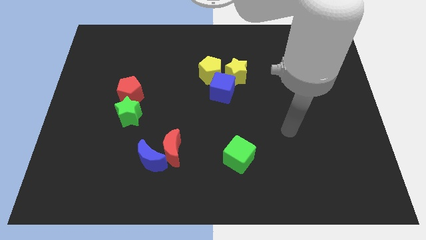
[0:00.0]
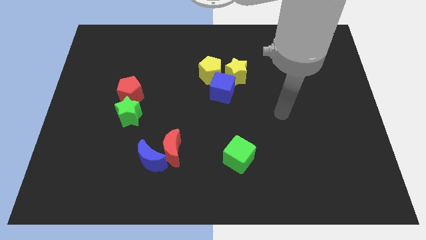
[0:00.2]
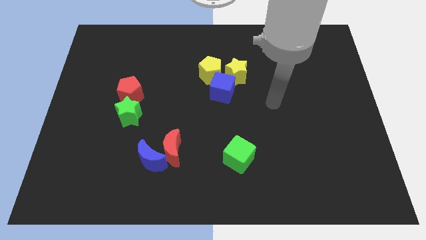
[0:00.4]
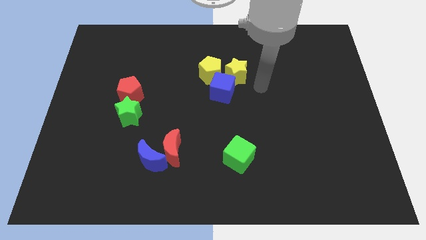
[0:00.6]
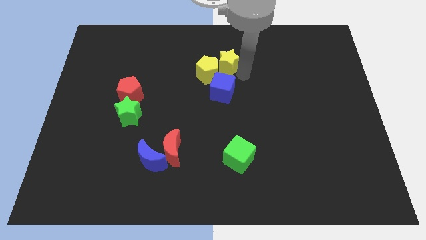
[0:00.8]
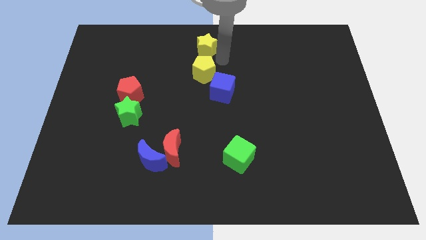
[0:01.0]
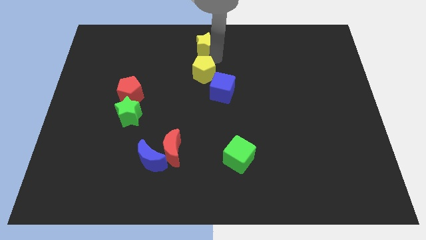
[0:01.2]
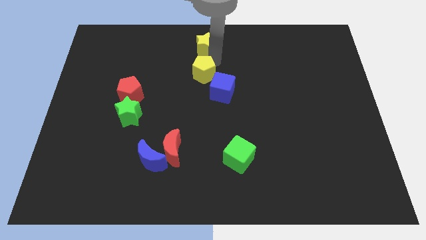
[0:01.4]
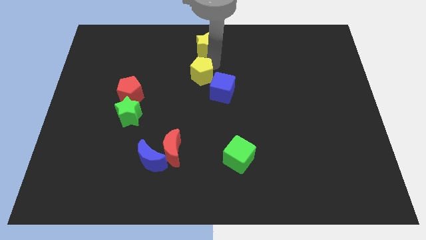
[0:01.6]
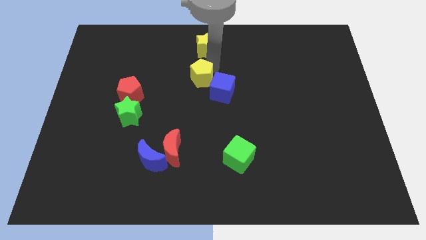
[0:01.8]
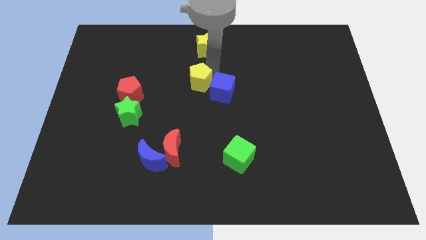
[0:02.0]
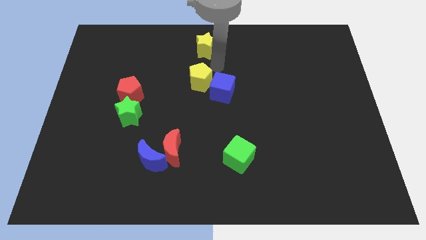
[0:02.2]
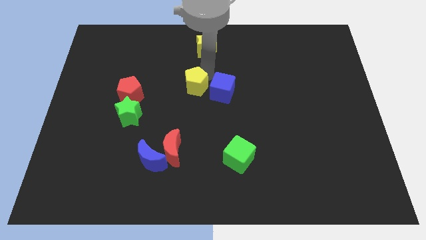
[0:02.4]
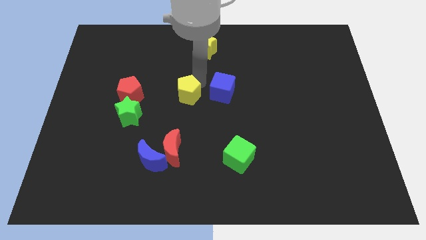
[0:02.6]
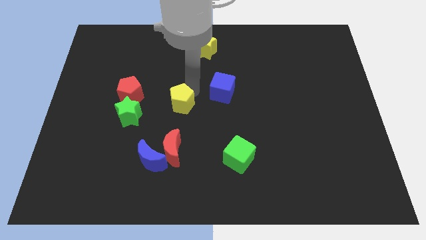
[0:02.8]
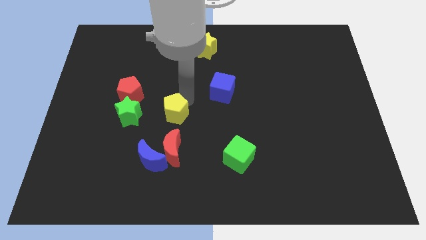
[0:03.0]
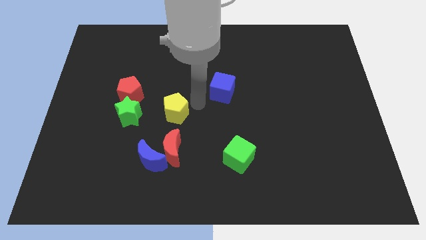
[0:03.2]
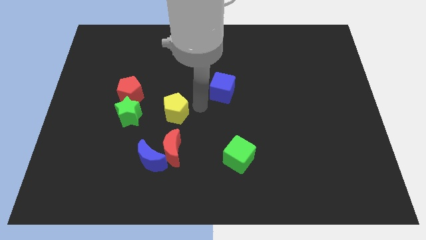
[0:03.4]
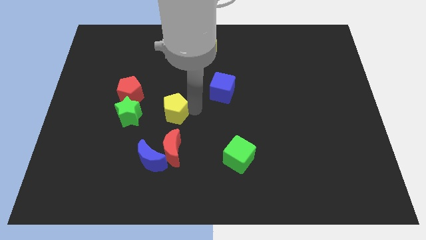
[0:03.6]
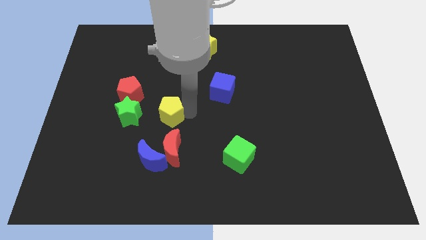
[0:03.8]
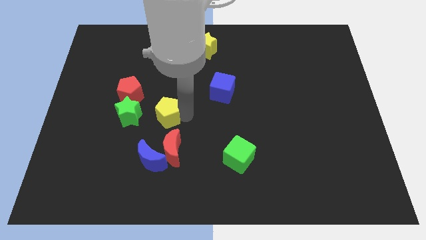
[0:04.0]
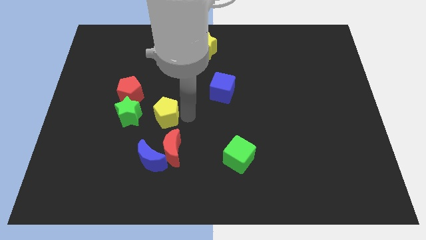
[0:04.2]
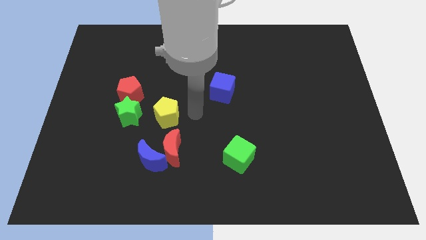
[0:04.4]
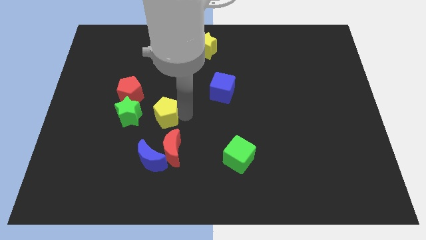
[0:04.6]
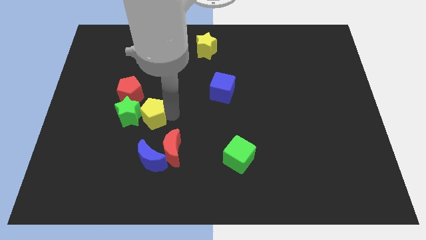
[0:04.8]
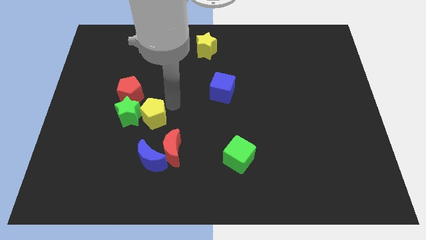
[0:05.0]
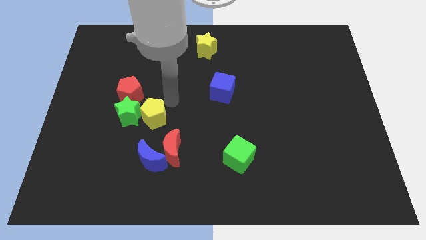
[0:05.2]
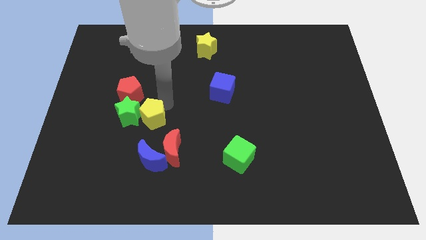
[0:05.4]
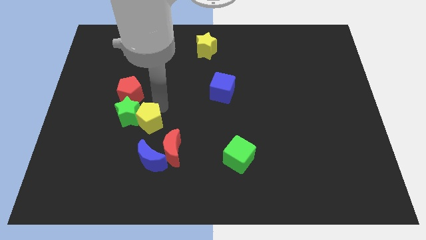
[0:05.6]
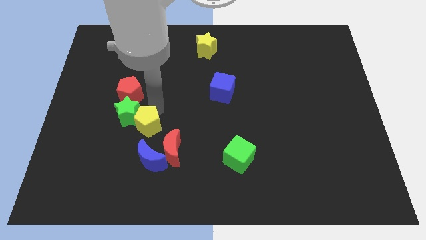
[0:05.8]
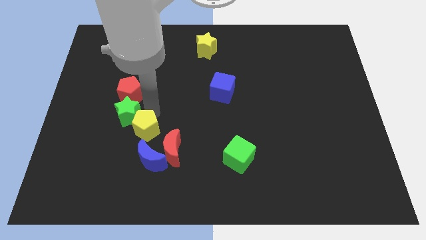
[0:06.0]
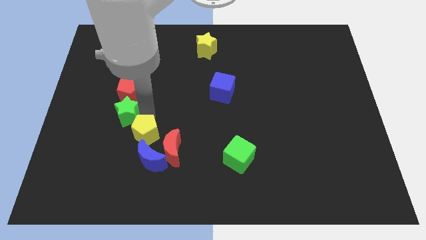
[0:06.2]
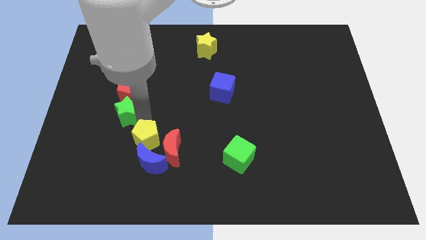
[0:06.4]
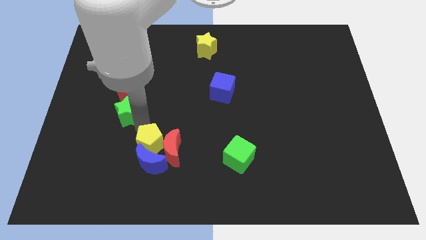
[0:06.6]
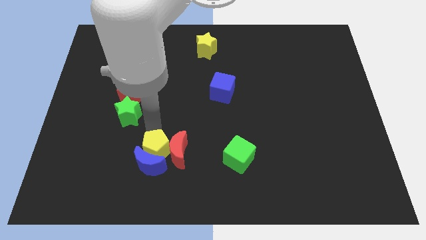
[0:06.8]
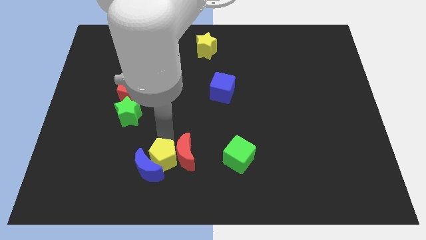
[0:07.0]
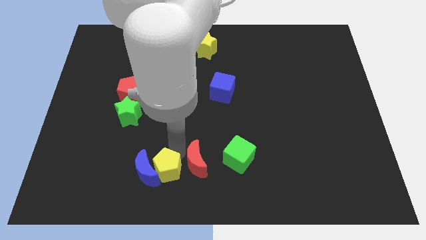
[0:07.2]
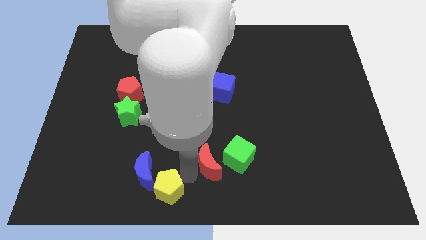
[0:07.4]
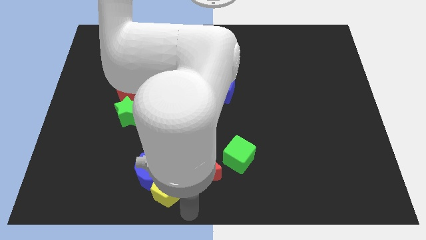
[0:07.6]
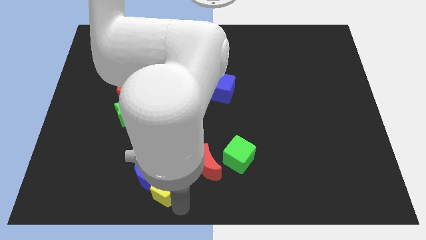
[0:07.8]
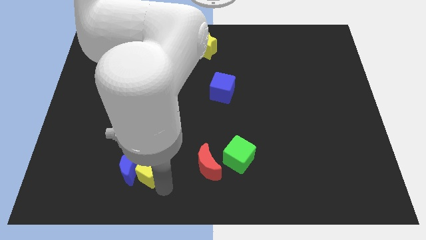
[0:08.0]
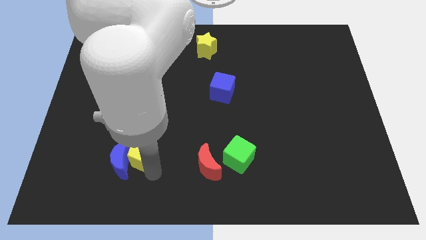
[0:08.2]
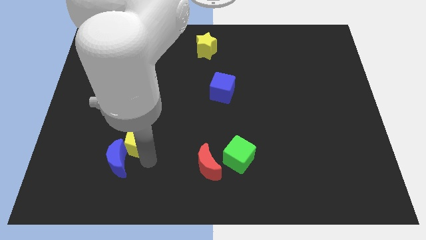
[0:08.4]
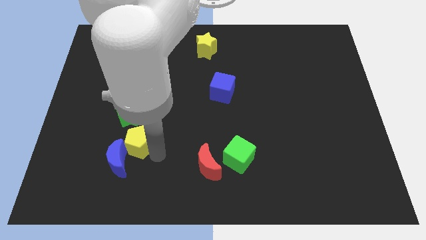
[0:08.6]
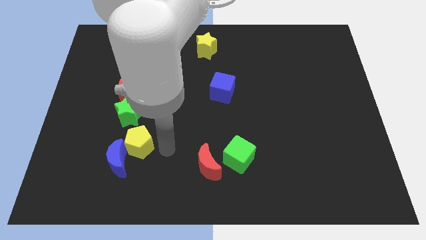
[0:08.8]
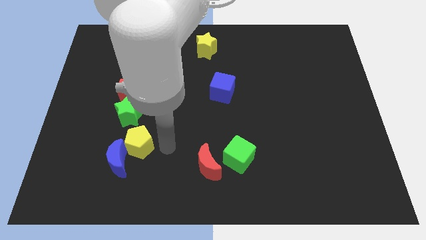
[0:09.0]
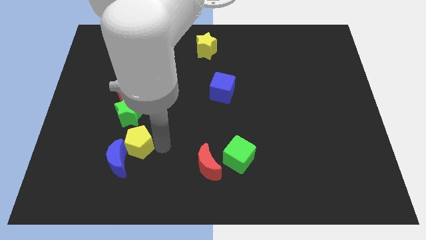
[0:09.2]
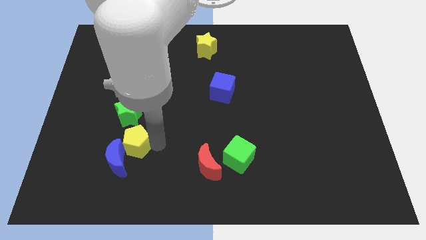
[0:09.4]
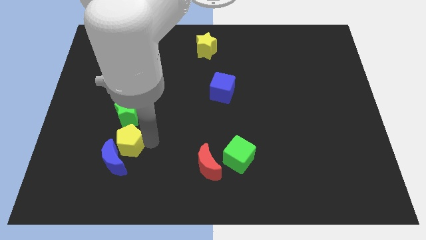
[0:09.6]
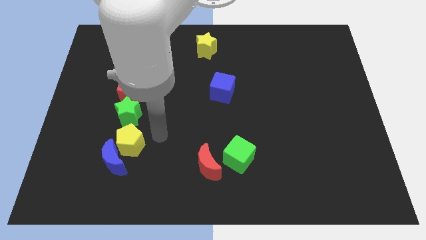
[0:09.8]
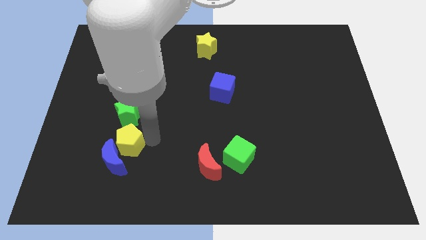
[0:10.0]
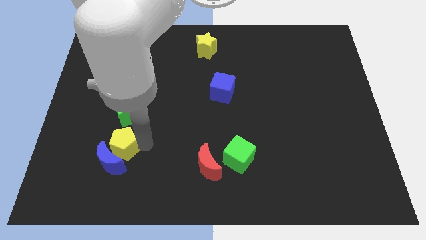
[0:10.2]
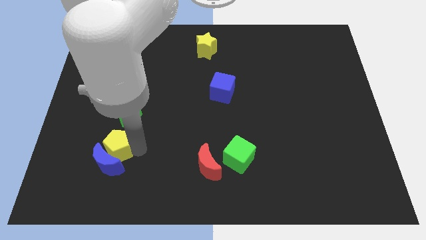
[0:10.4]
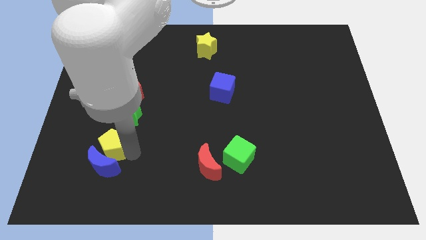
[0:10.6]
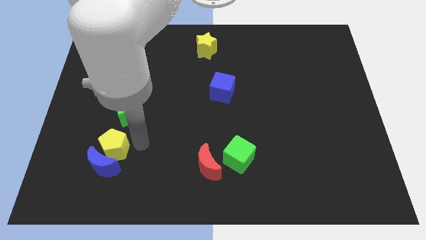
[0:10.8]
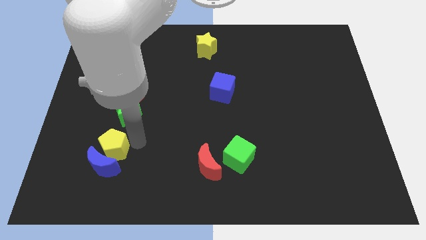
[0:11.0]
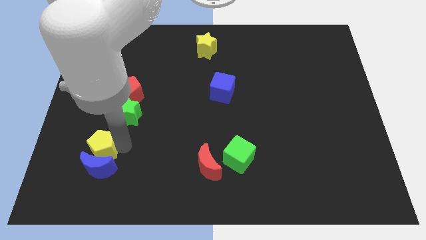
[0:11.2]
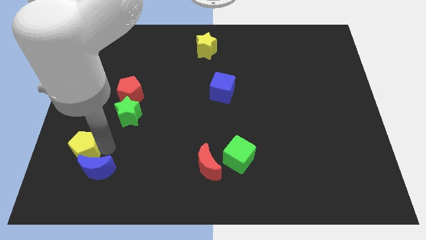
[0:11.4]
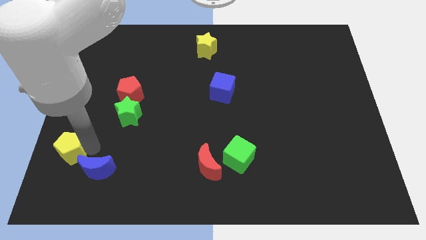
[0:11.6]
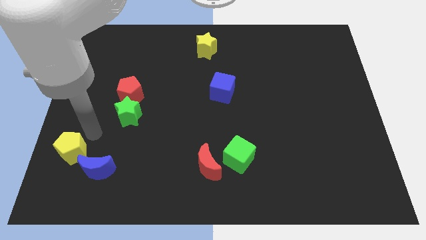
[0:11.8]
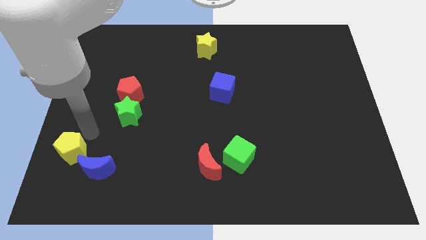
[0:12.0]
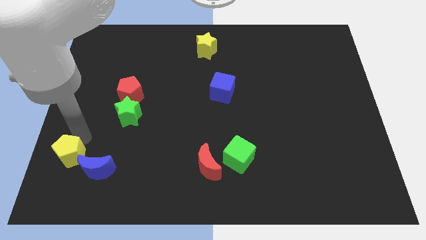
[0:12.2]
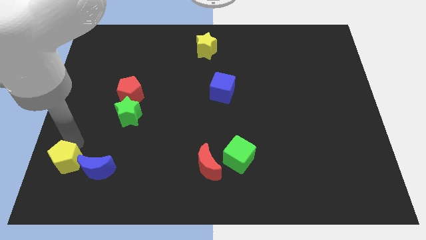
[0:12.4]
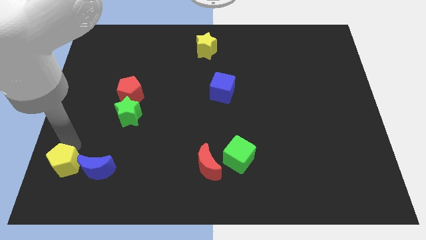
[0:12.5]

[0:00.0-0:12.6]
slide the yellow pentagon to the lower left corner

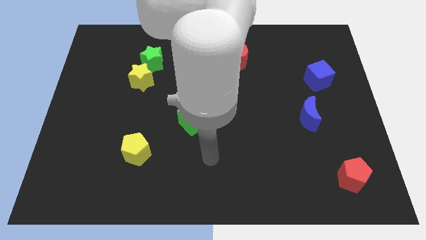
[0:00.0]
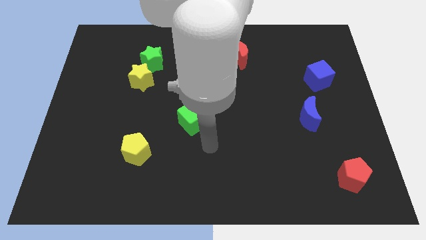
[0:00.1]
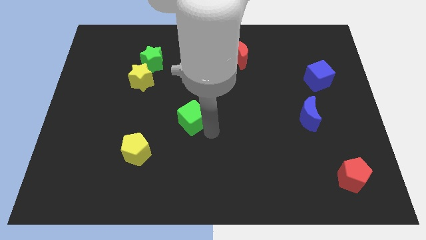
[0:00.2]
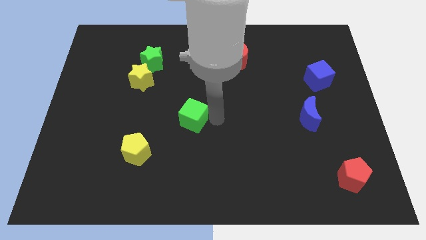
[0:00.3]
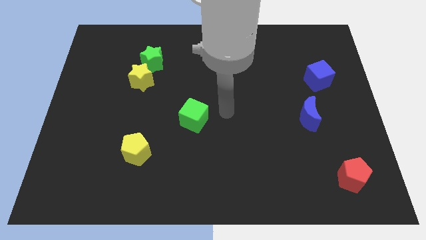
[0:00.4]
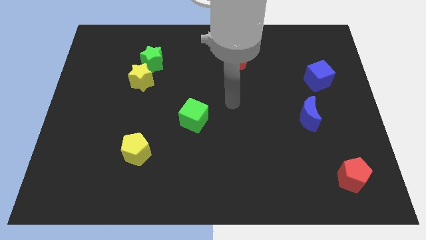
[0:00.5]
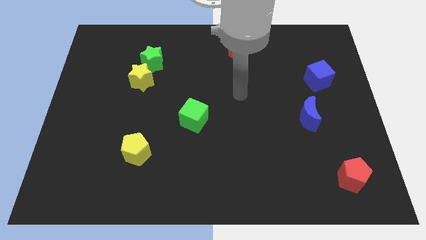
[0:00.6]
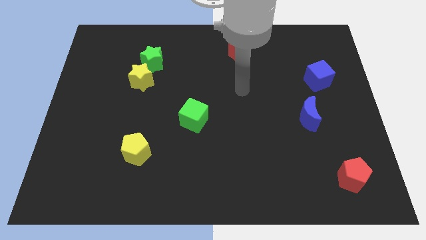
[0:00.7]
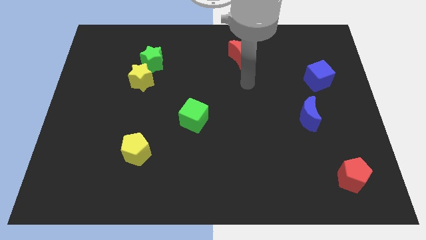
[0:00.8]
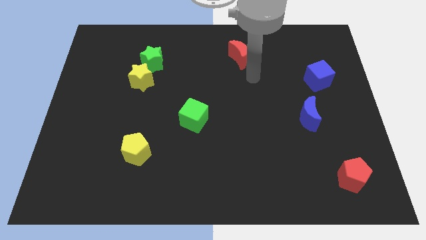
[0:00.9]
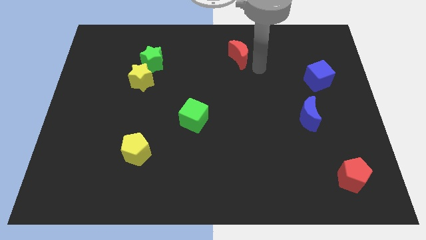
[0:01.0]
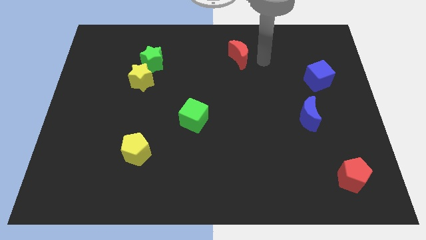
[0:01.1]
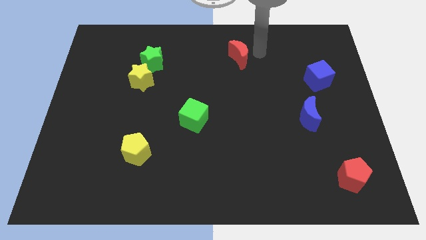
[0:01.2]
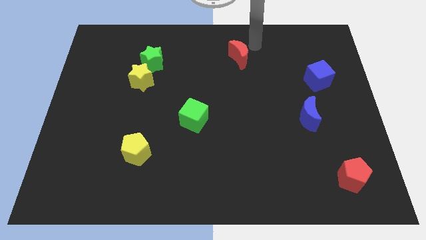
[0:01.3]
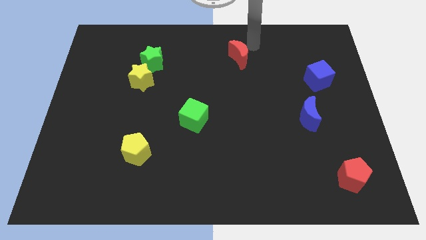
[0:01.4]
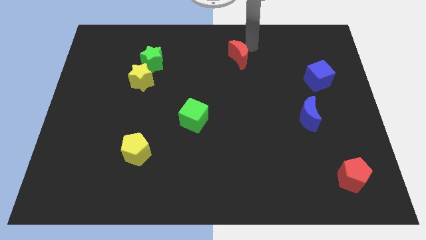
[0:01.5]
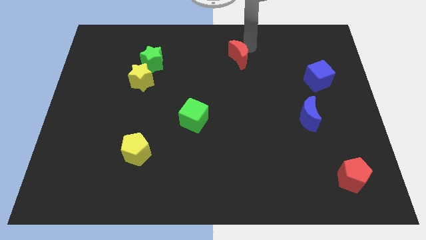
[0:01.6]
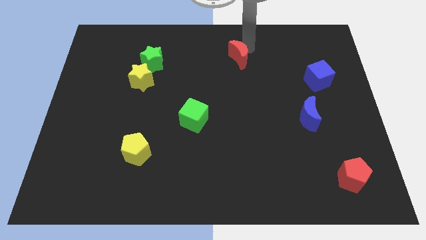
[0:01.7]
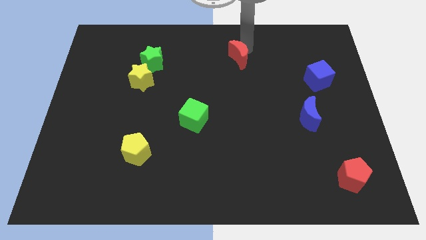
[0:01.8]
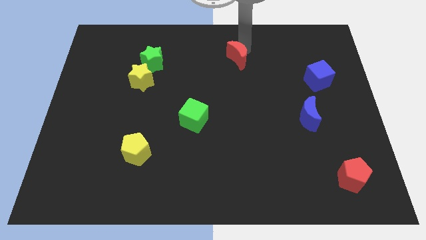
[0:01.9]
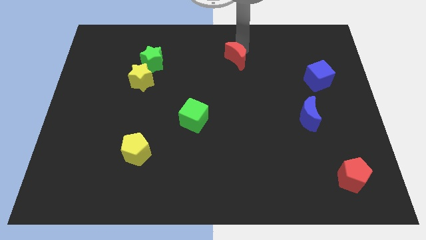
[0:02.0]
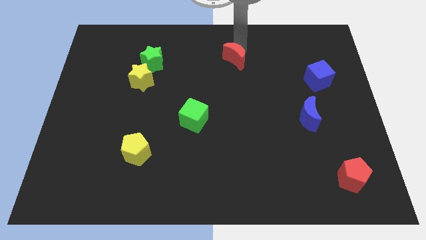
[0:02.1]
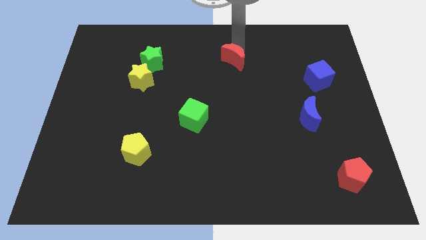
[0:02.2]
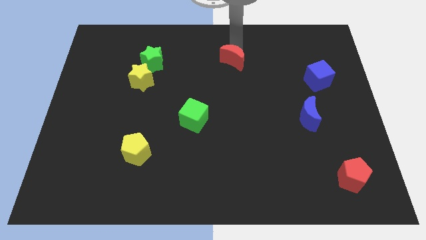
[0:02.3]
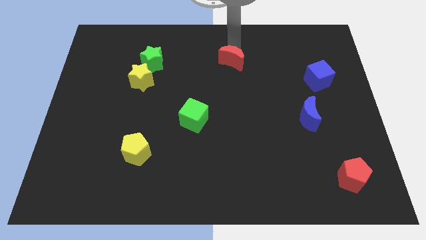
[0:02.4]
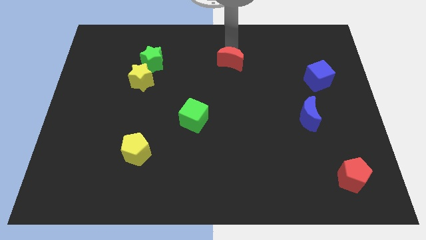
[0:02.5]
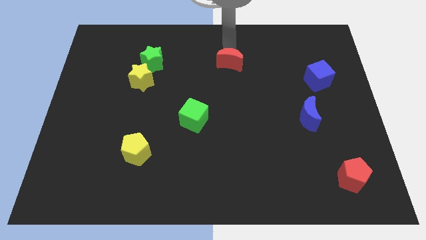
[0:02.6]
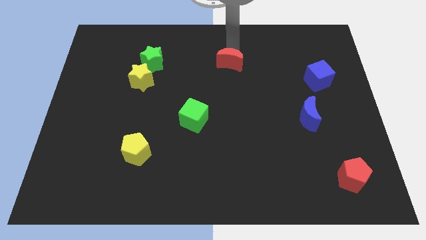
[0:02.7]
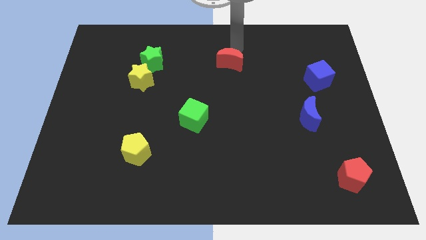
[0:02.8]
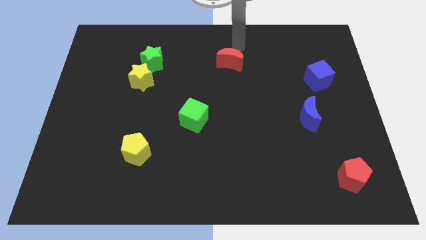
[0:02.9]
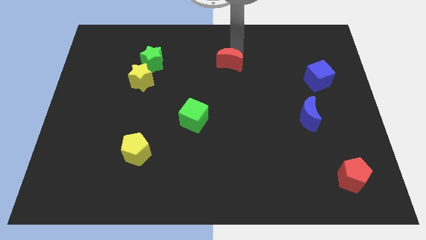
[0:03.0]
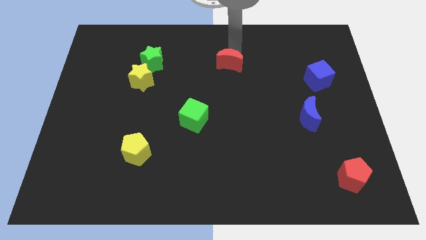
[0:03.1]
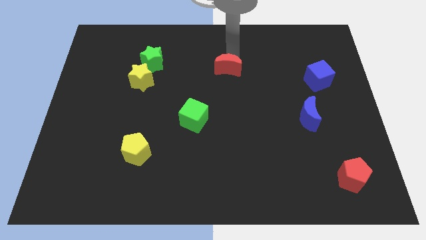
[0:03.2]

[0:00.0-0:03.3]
put the red moon to the middle of the board
